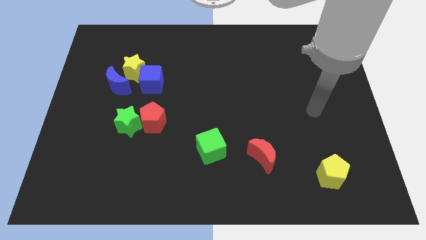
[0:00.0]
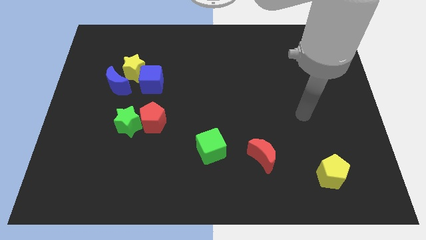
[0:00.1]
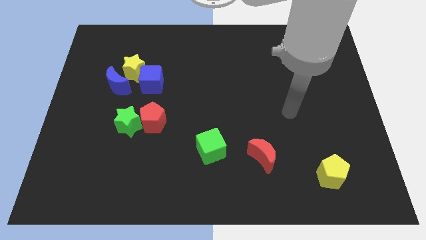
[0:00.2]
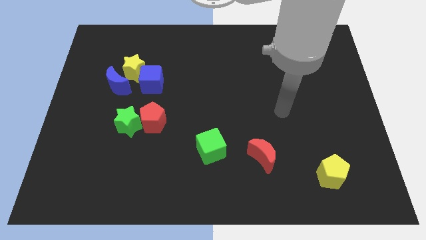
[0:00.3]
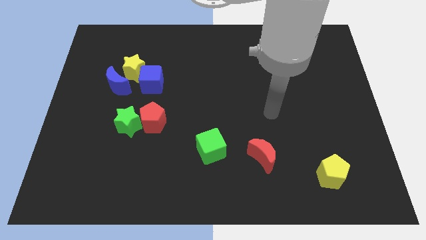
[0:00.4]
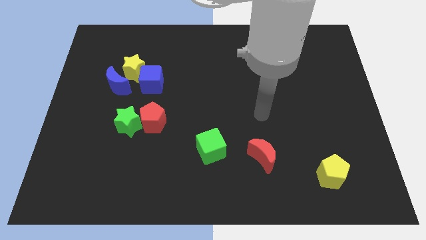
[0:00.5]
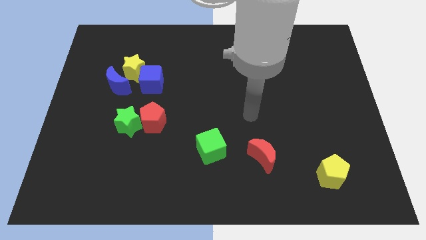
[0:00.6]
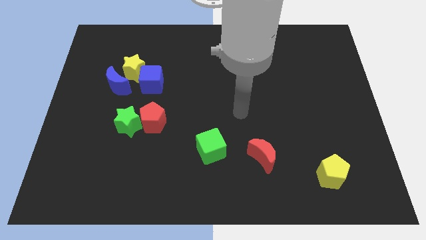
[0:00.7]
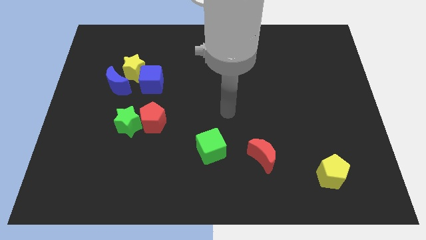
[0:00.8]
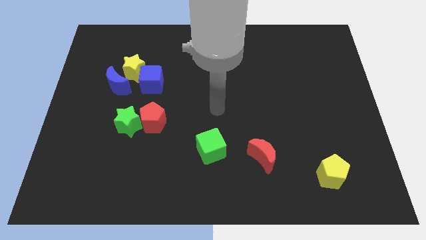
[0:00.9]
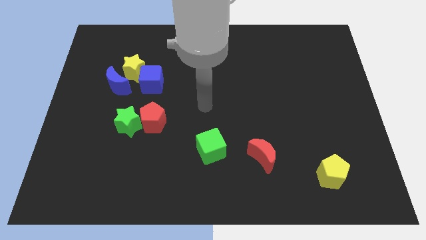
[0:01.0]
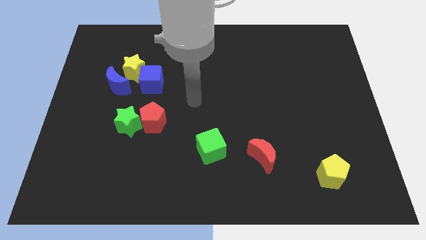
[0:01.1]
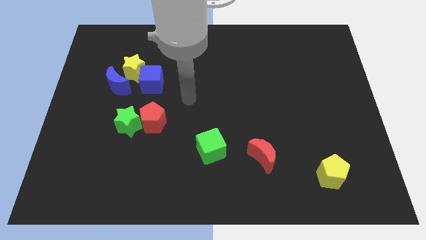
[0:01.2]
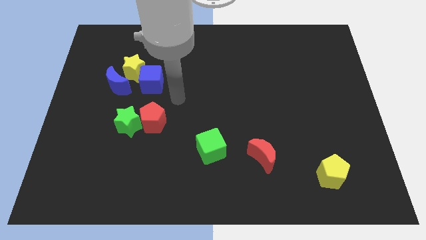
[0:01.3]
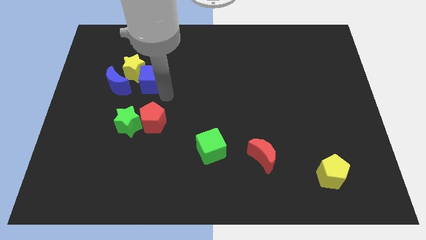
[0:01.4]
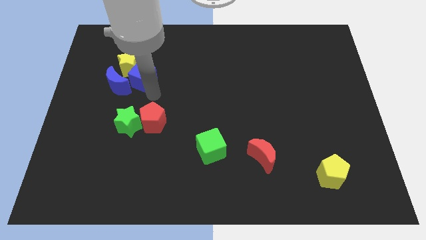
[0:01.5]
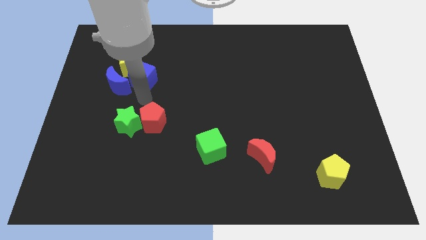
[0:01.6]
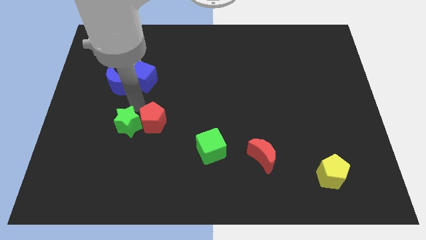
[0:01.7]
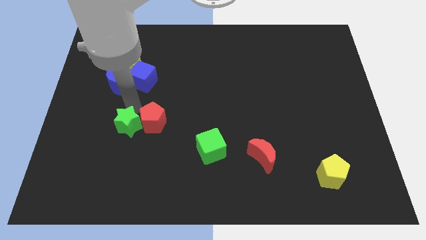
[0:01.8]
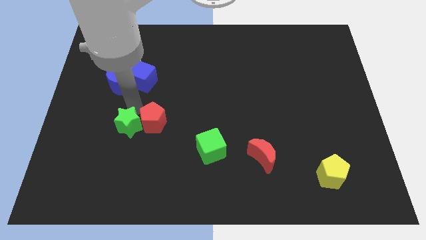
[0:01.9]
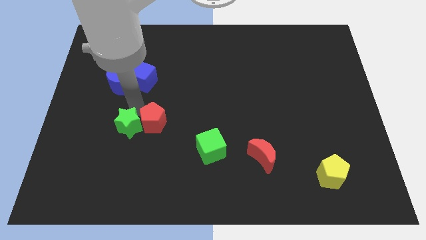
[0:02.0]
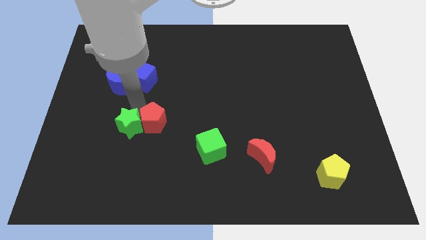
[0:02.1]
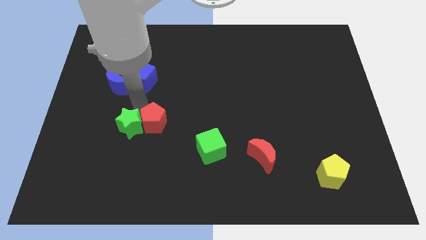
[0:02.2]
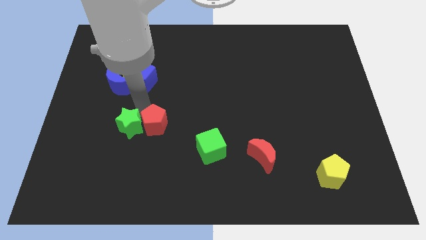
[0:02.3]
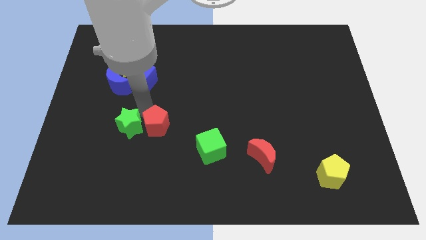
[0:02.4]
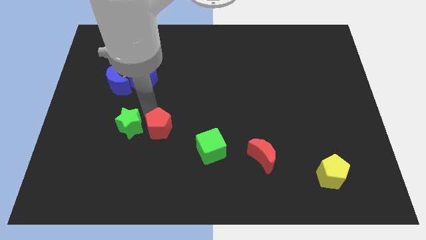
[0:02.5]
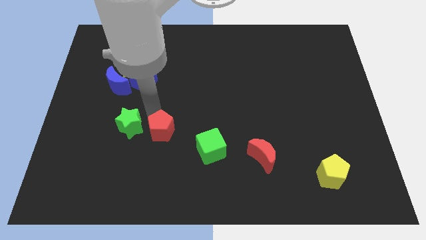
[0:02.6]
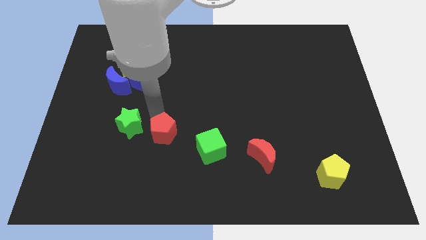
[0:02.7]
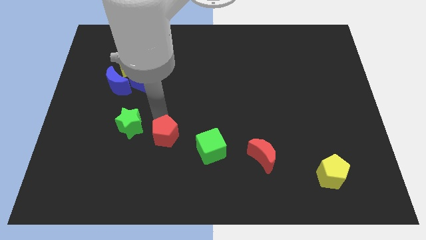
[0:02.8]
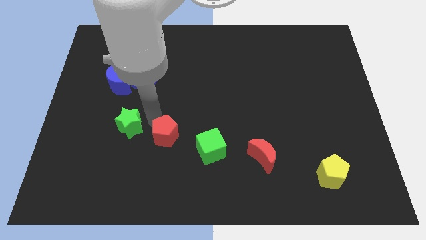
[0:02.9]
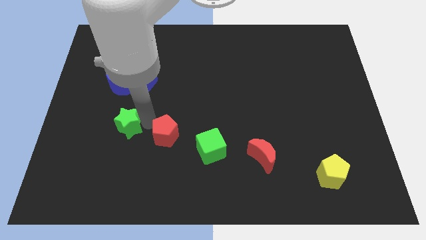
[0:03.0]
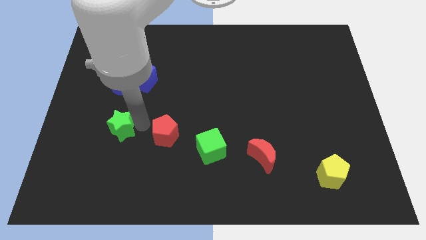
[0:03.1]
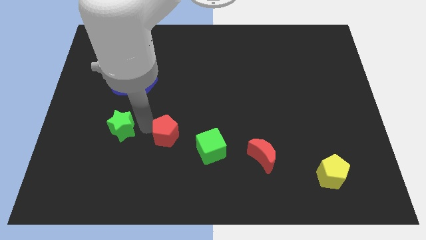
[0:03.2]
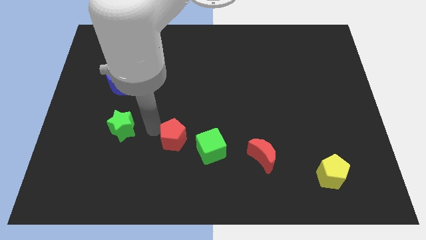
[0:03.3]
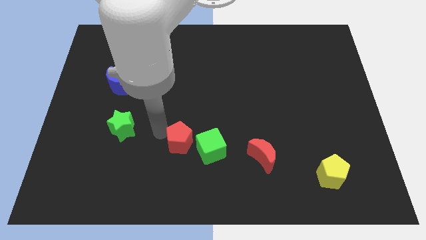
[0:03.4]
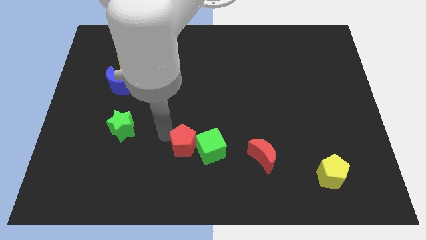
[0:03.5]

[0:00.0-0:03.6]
slide the red pentagon close to the green cube

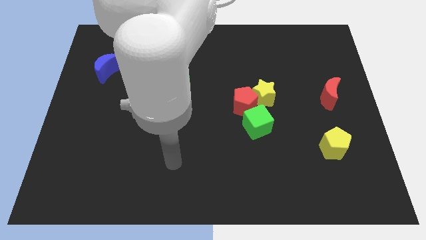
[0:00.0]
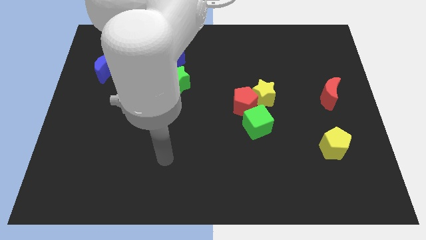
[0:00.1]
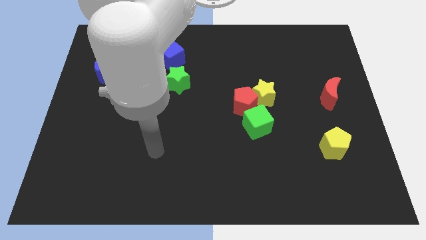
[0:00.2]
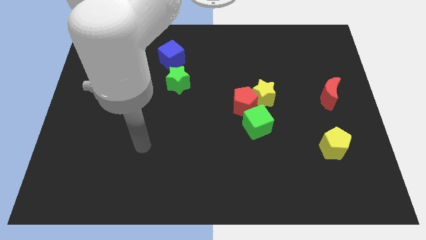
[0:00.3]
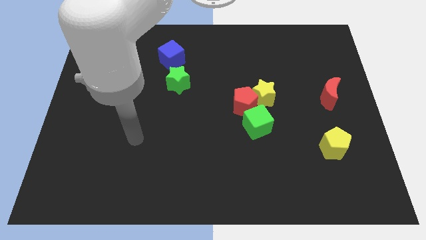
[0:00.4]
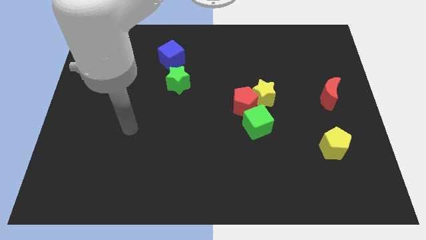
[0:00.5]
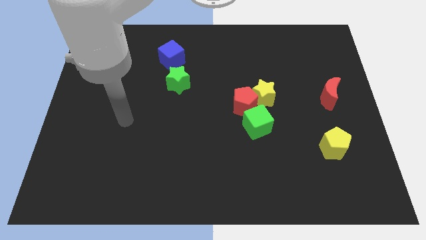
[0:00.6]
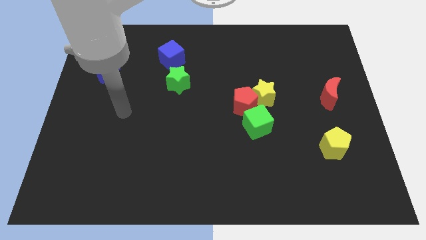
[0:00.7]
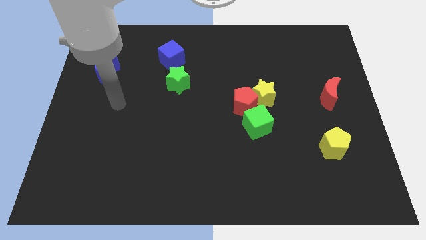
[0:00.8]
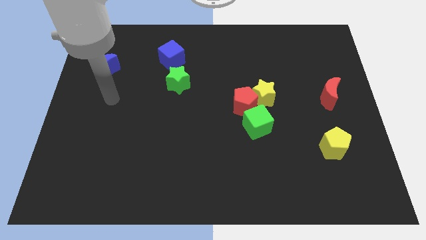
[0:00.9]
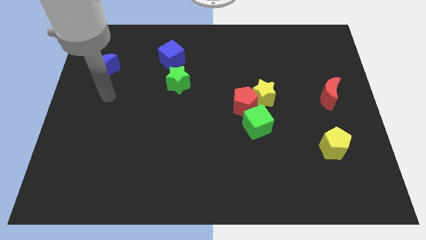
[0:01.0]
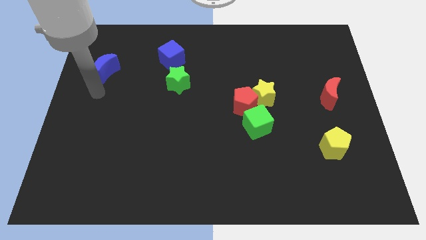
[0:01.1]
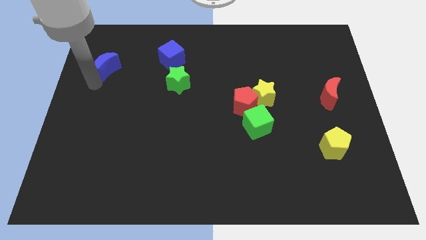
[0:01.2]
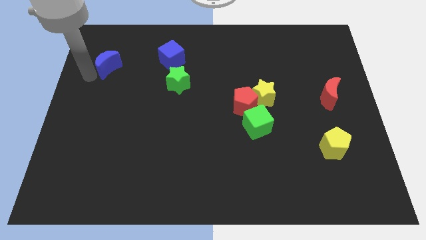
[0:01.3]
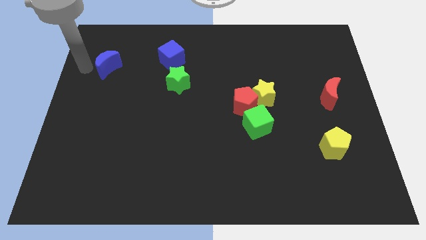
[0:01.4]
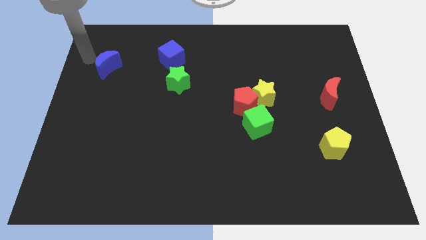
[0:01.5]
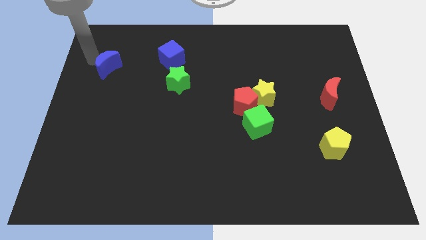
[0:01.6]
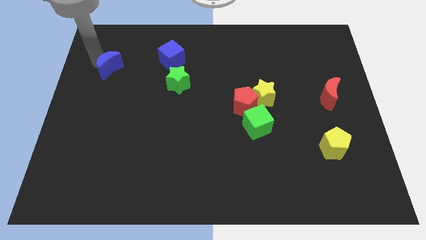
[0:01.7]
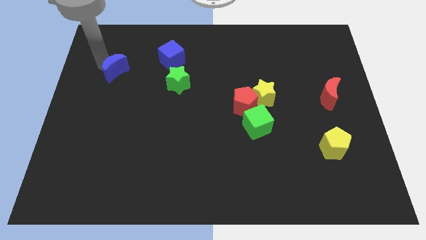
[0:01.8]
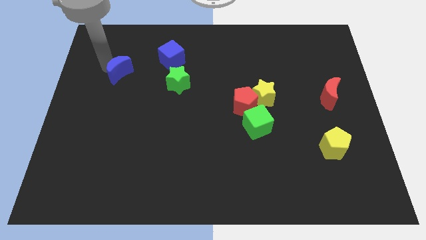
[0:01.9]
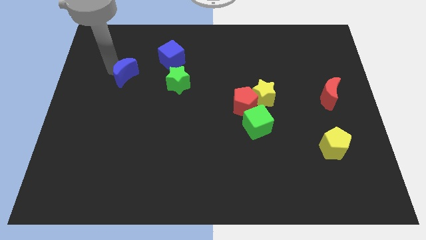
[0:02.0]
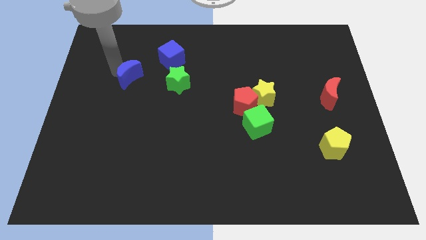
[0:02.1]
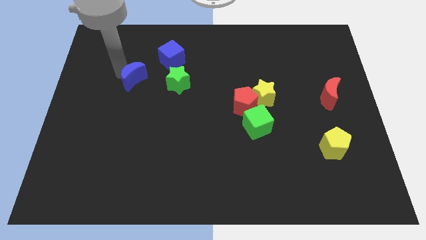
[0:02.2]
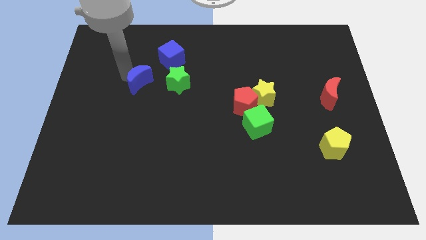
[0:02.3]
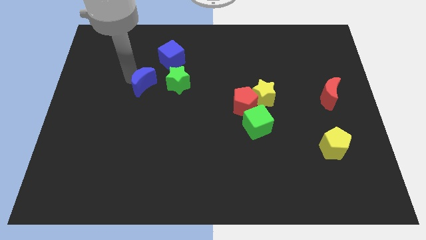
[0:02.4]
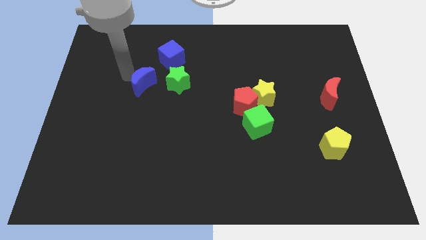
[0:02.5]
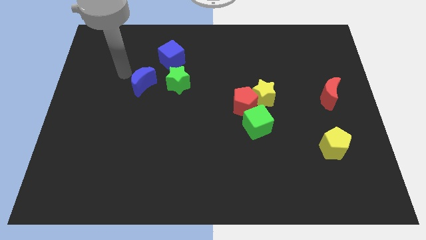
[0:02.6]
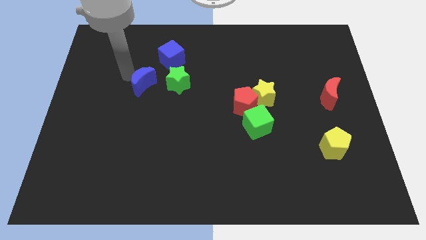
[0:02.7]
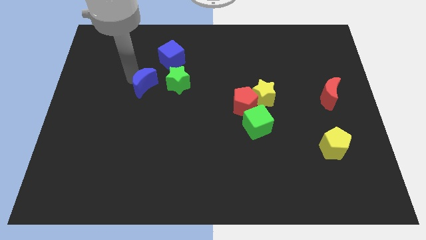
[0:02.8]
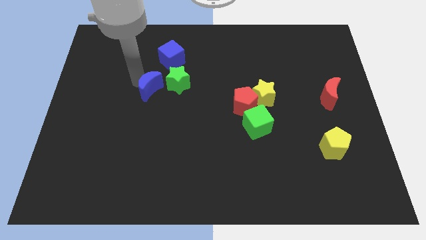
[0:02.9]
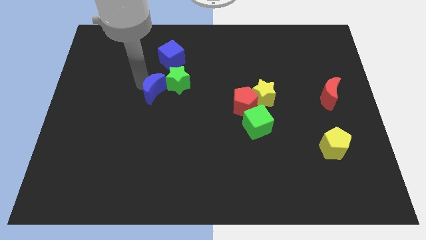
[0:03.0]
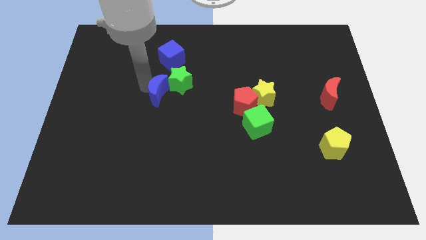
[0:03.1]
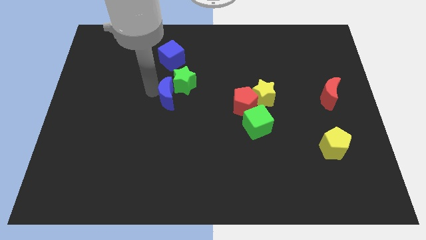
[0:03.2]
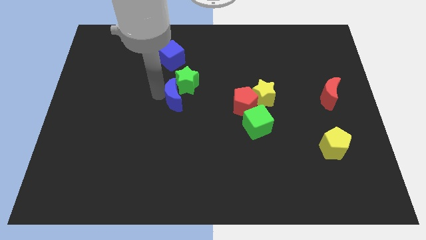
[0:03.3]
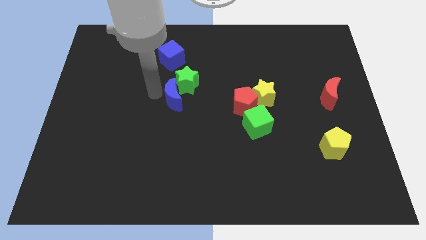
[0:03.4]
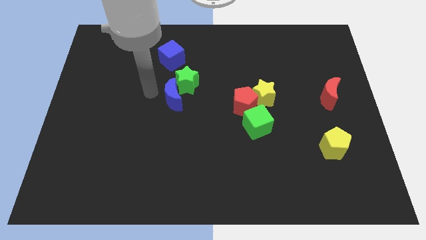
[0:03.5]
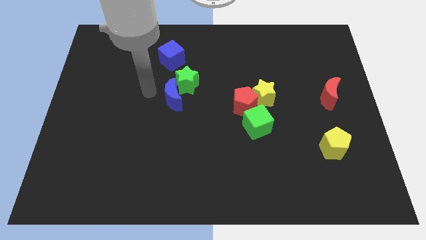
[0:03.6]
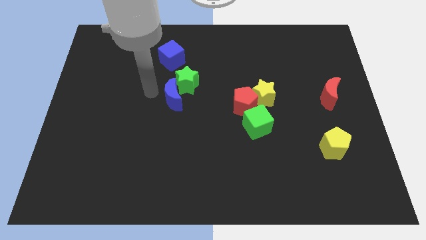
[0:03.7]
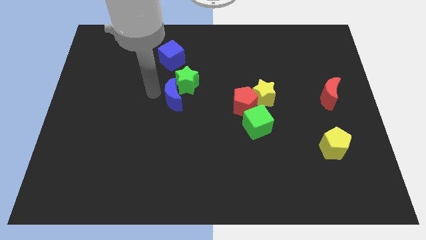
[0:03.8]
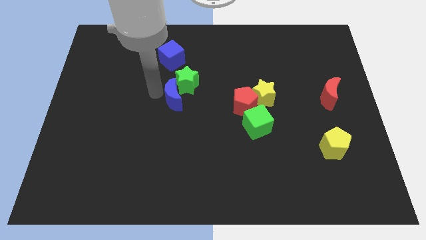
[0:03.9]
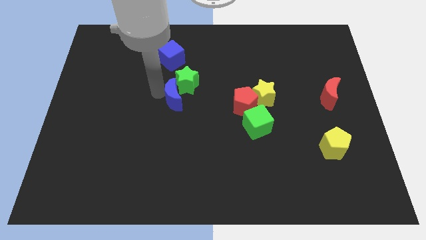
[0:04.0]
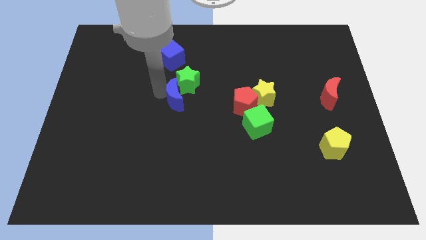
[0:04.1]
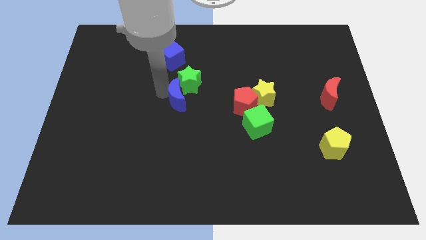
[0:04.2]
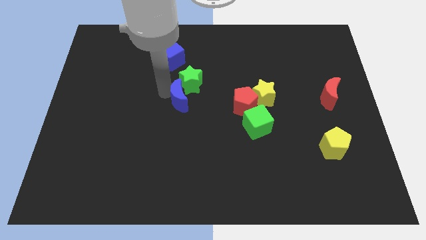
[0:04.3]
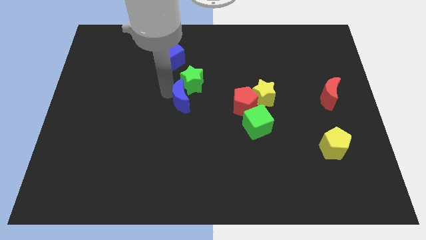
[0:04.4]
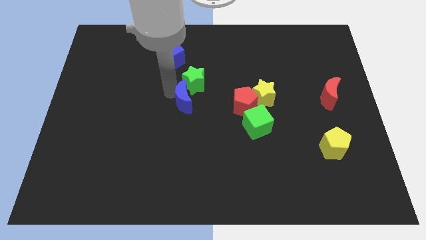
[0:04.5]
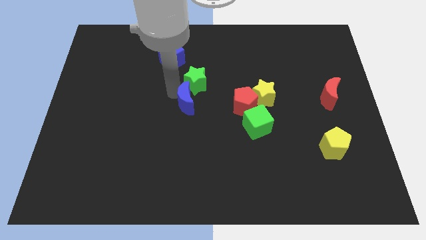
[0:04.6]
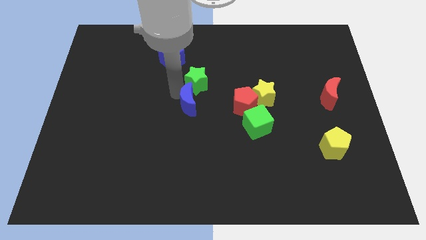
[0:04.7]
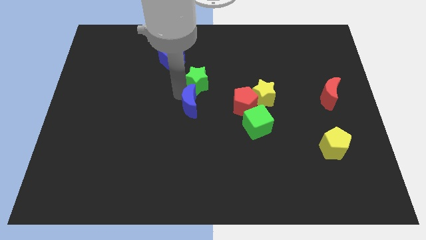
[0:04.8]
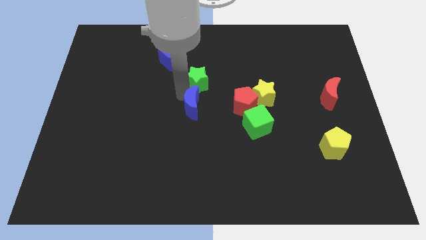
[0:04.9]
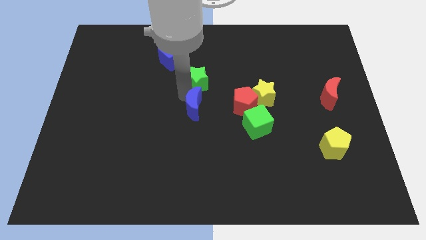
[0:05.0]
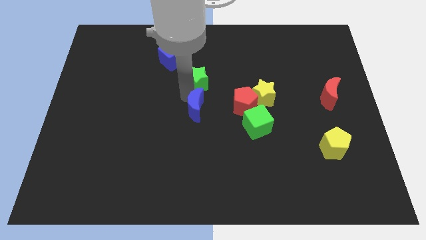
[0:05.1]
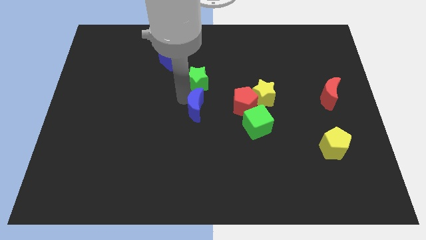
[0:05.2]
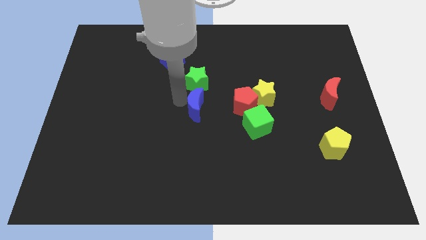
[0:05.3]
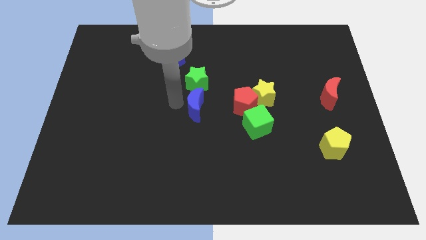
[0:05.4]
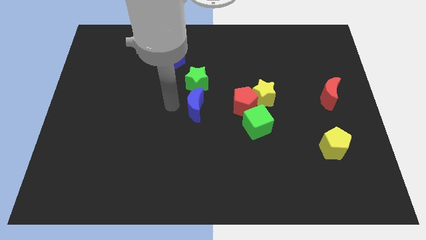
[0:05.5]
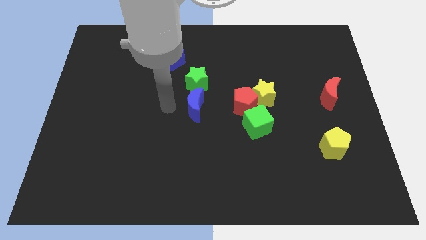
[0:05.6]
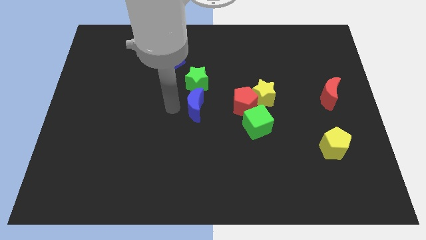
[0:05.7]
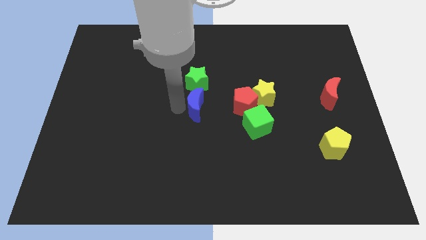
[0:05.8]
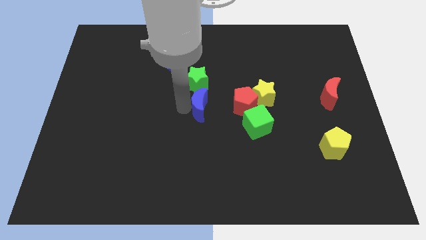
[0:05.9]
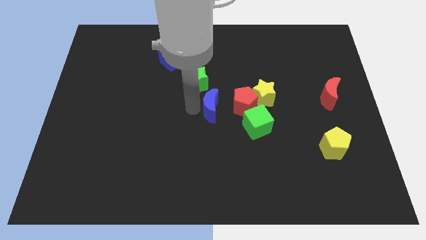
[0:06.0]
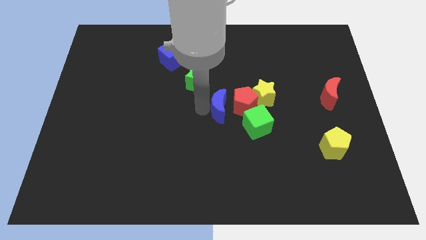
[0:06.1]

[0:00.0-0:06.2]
slide the blue moon towards the red pentagon
